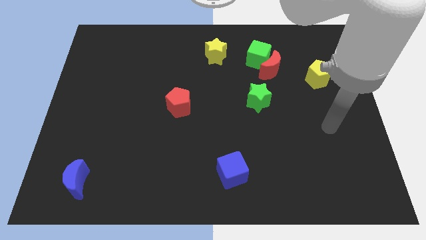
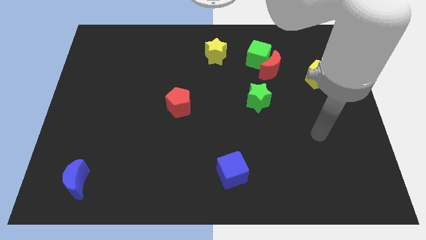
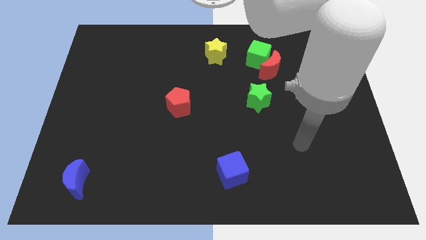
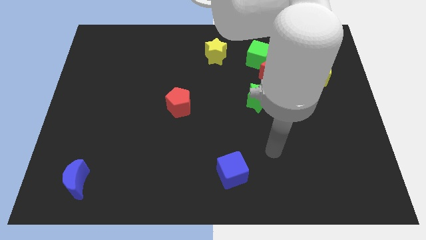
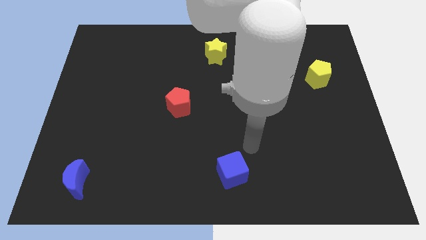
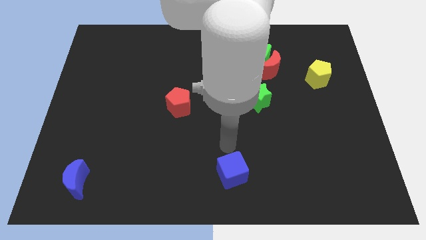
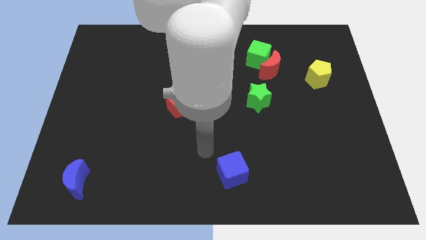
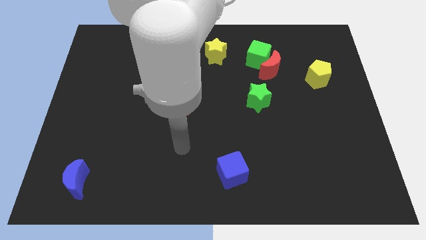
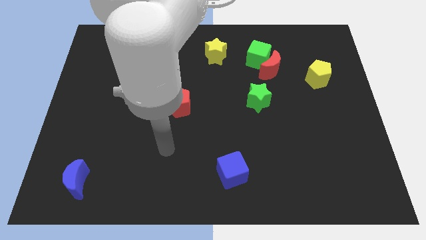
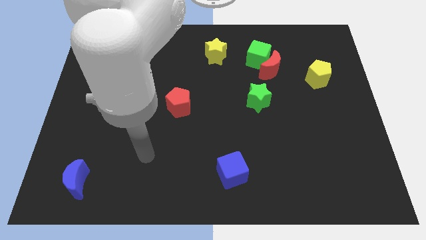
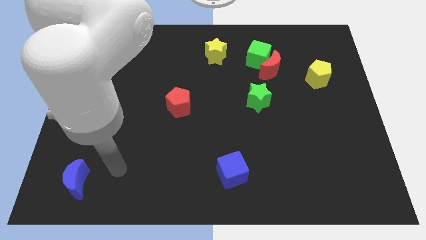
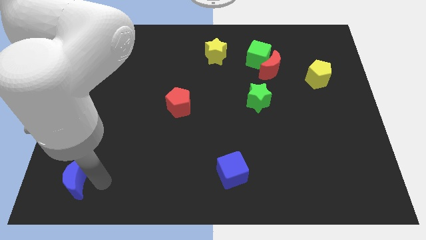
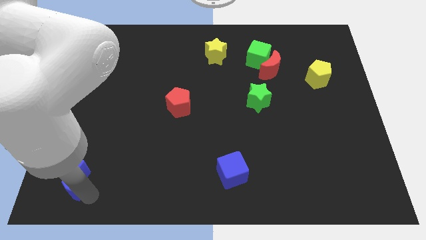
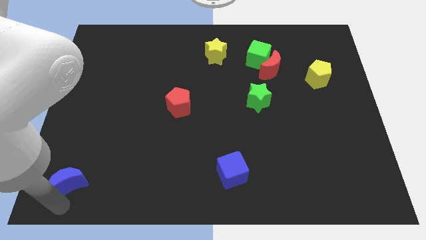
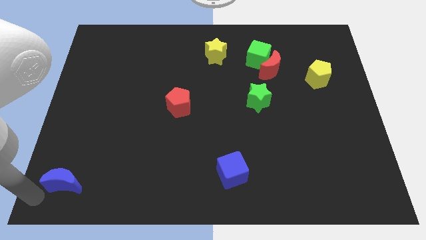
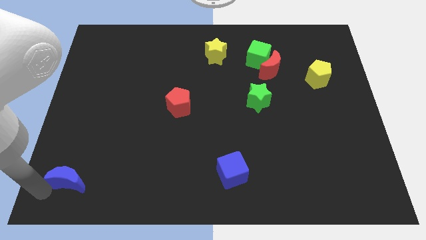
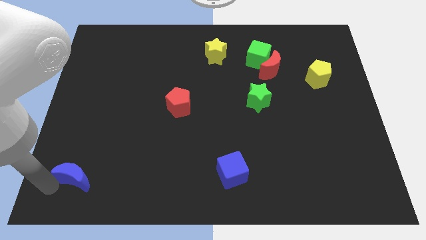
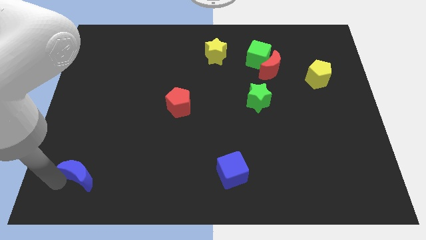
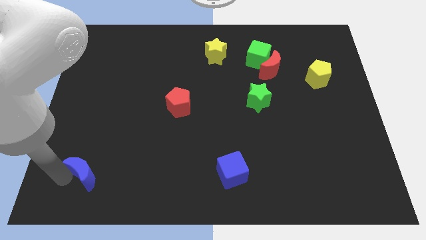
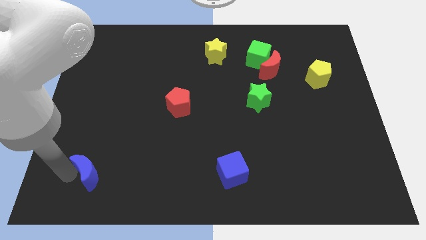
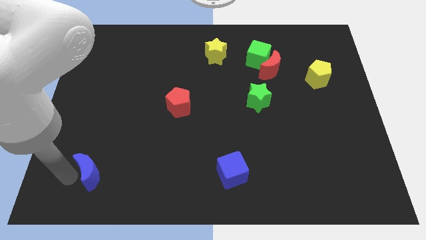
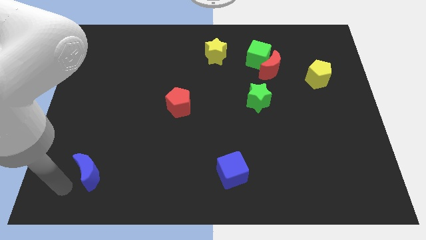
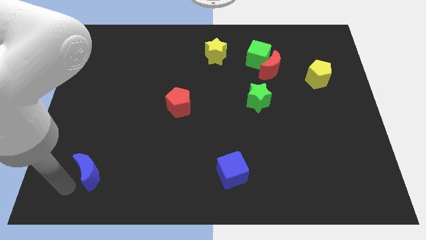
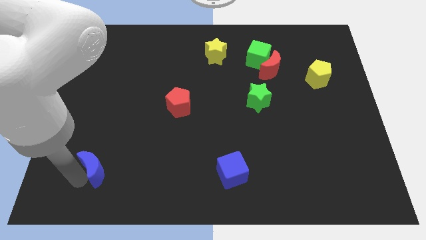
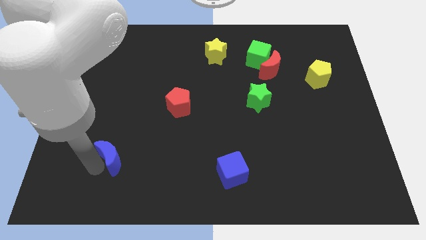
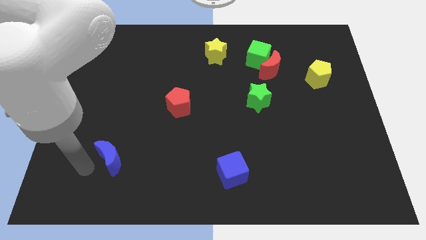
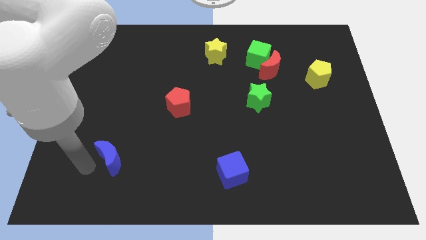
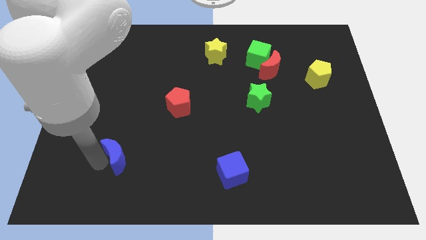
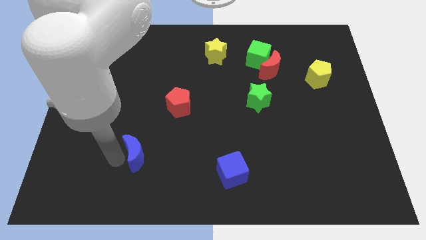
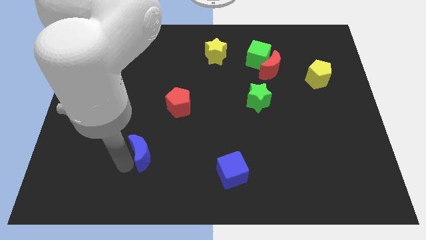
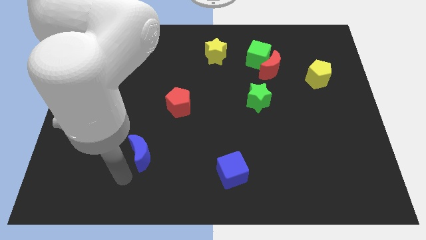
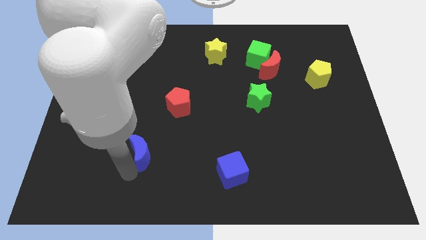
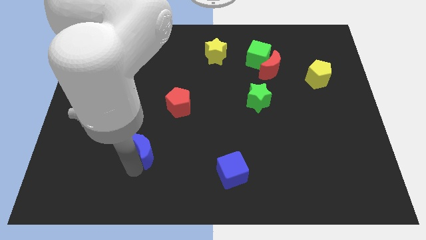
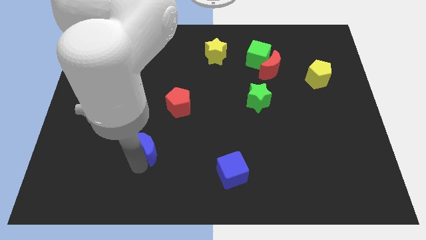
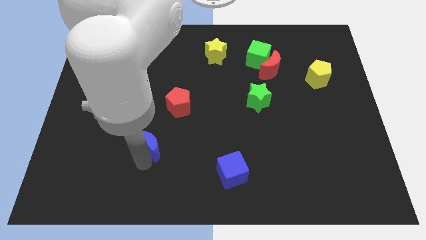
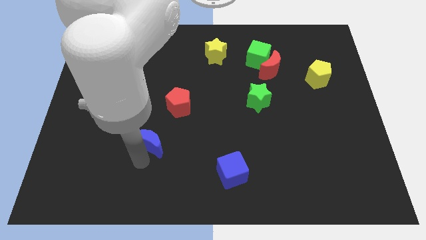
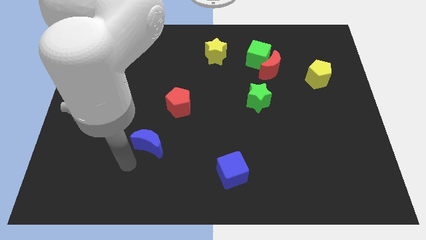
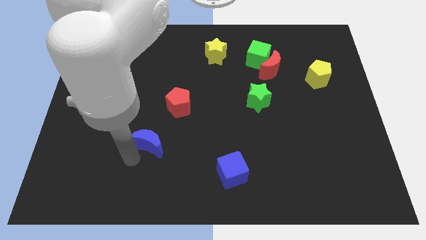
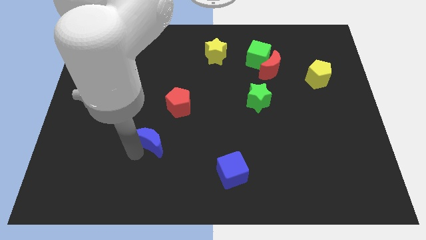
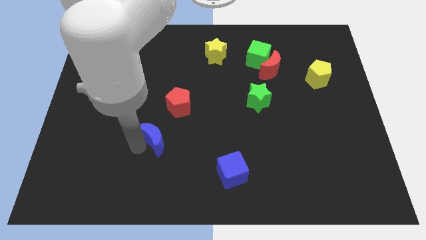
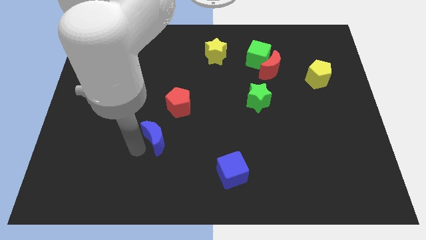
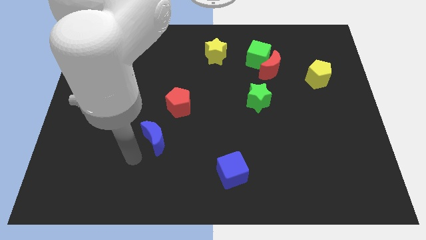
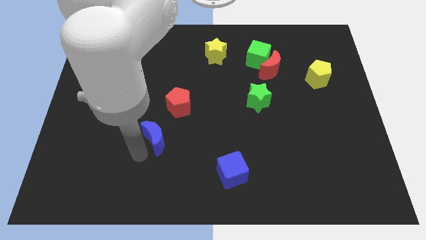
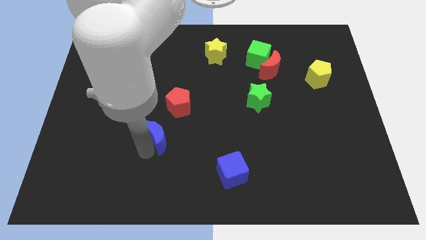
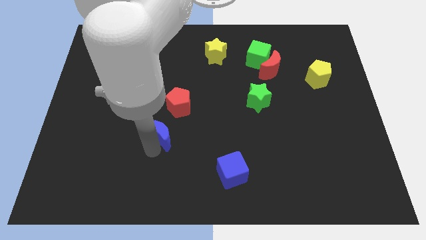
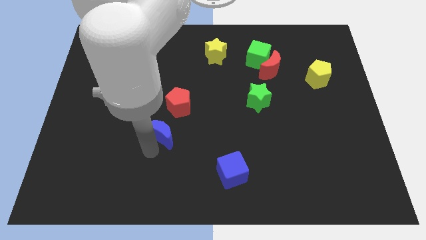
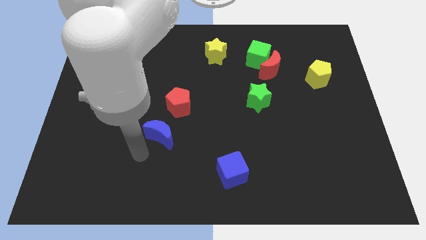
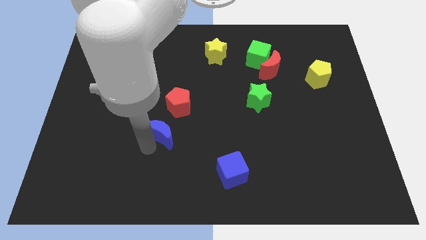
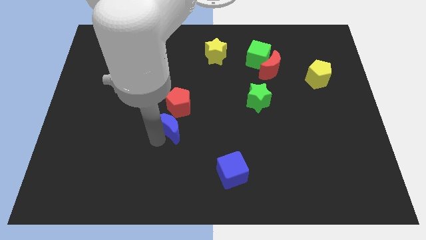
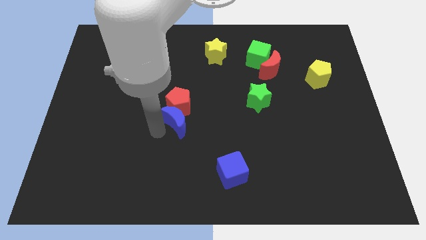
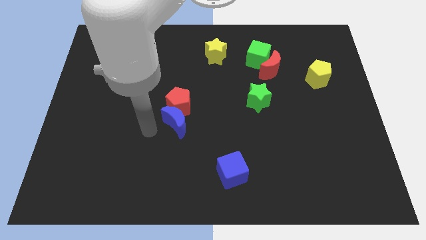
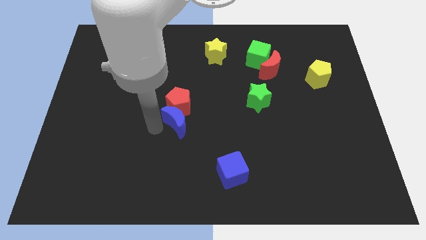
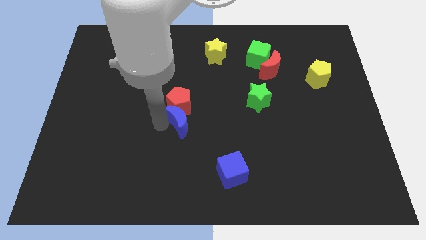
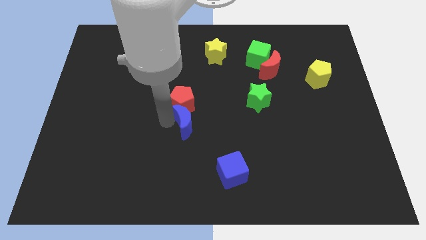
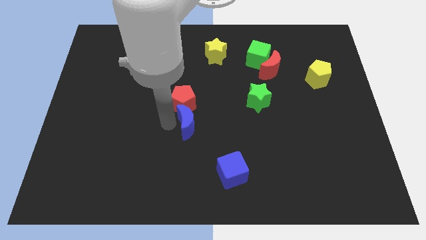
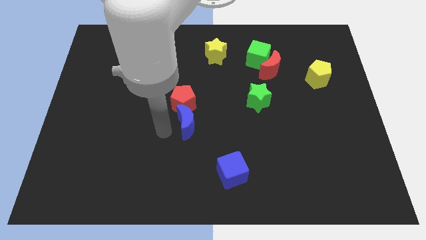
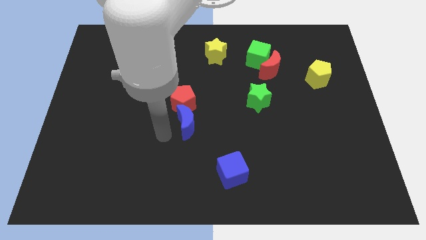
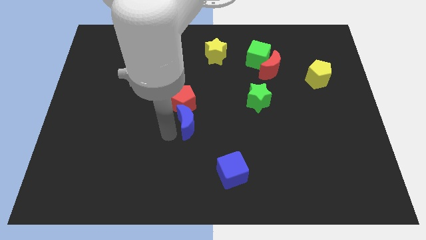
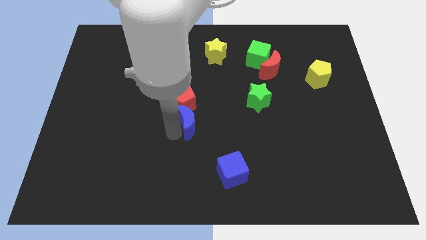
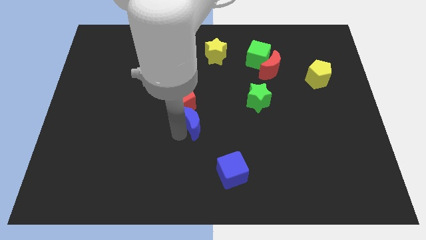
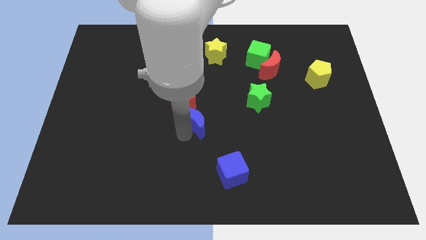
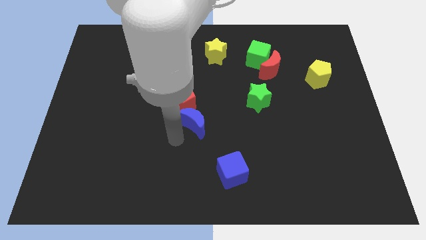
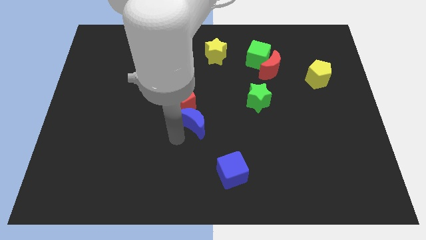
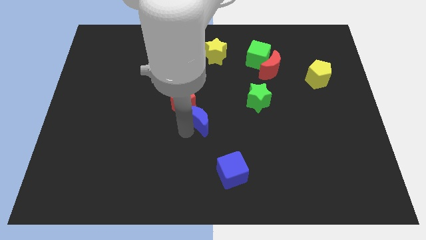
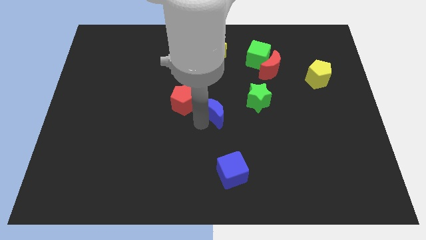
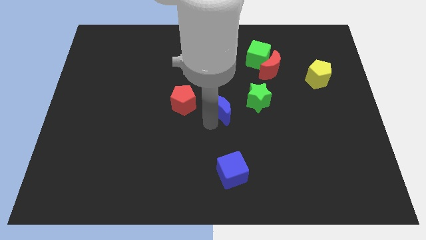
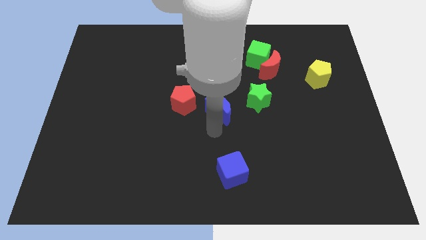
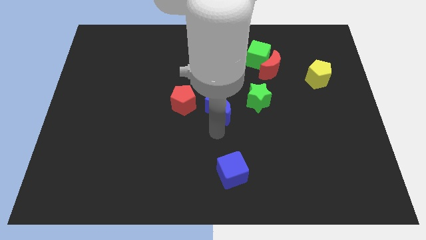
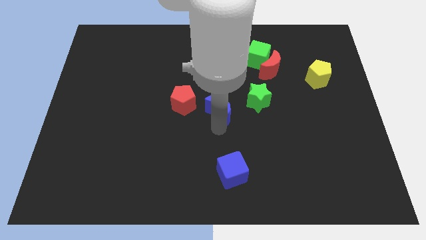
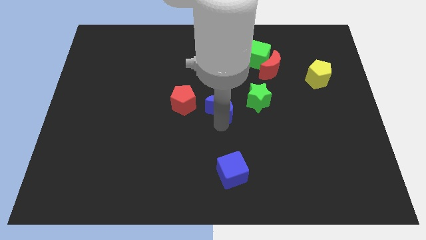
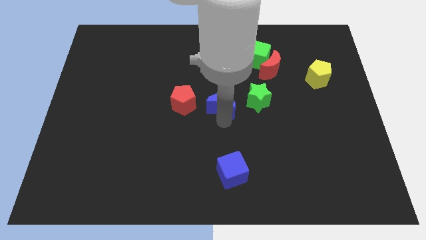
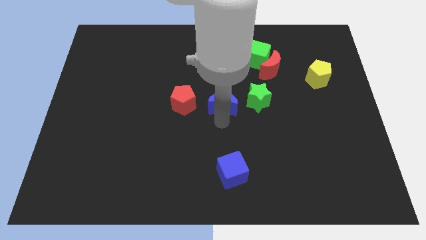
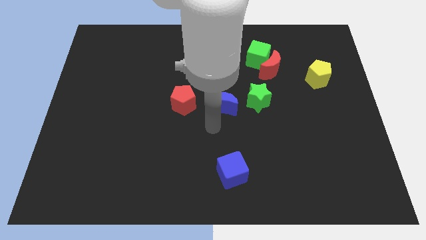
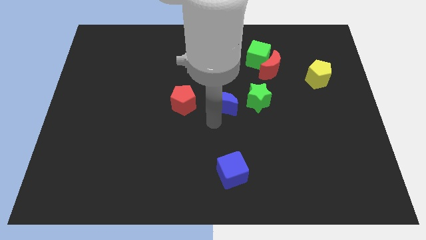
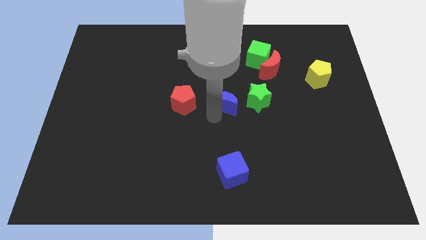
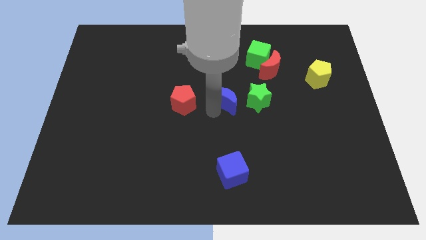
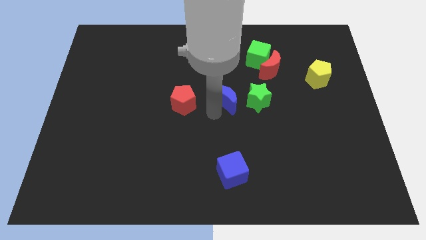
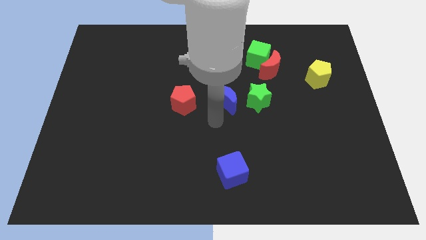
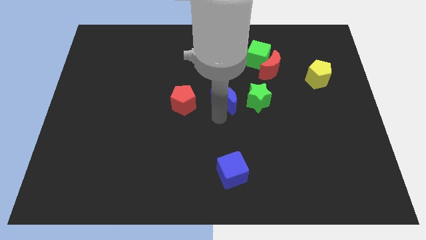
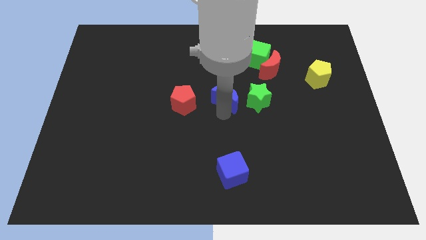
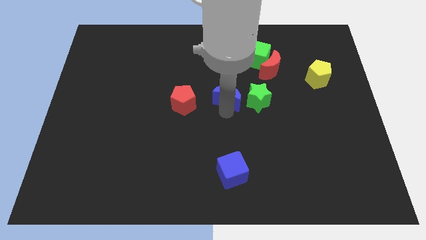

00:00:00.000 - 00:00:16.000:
slide the blue moon to the top left of the green star
